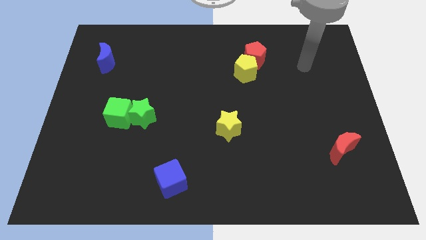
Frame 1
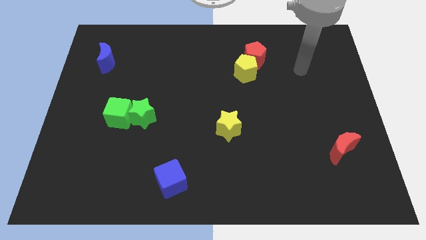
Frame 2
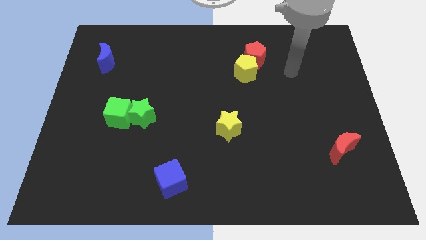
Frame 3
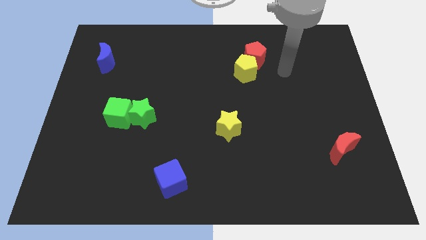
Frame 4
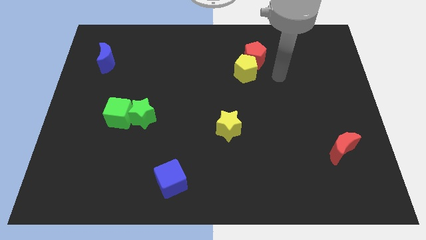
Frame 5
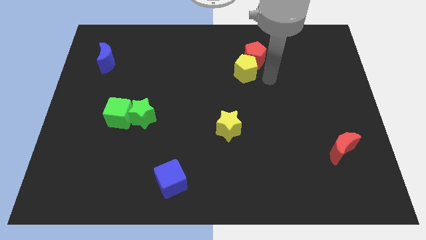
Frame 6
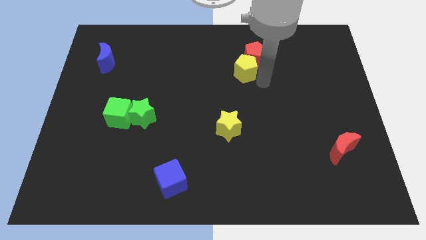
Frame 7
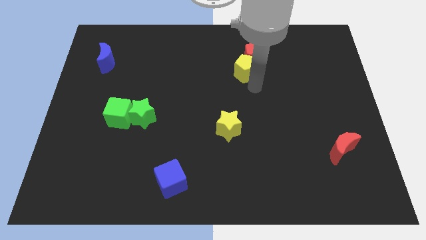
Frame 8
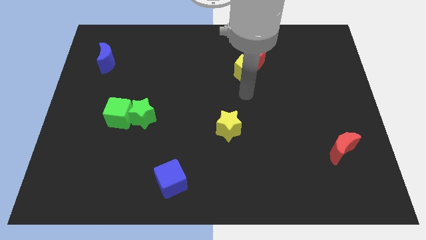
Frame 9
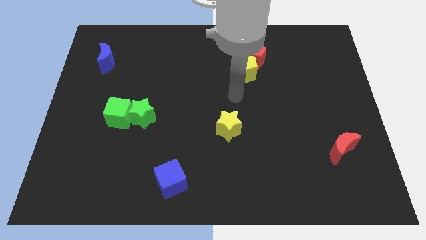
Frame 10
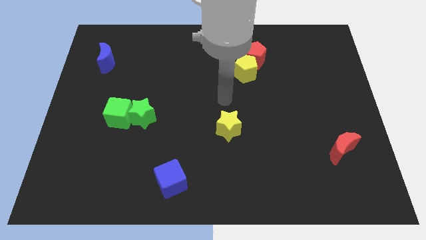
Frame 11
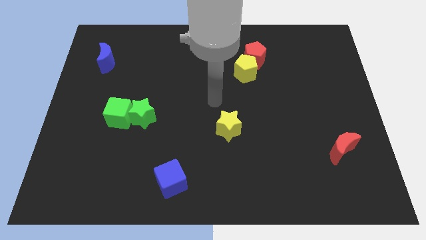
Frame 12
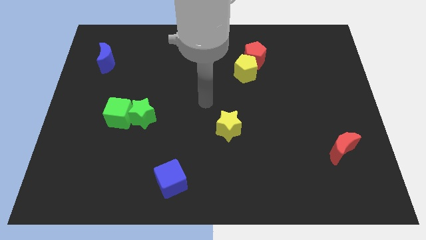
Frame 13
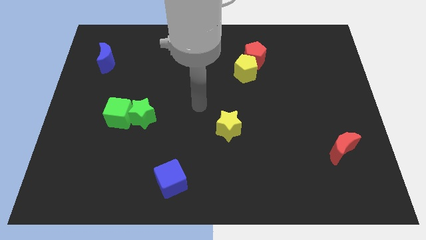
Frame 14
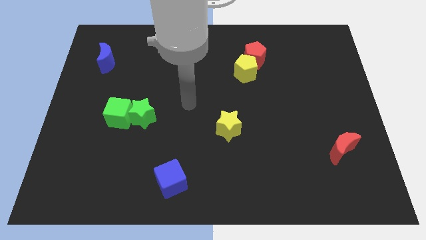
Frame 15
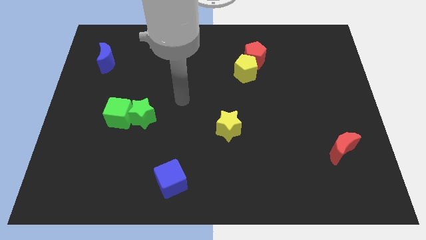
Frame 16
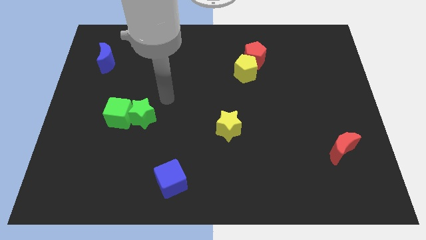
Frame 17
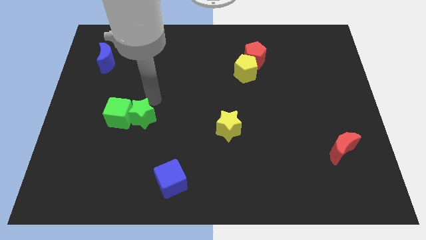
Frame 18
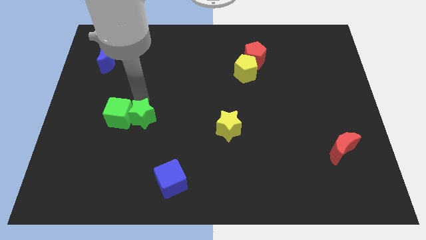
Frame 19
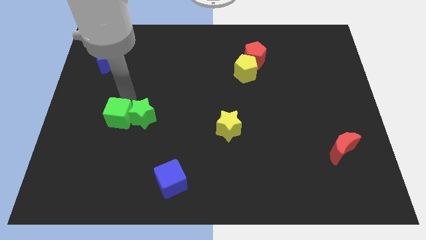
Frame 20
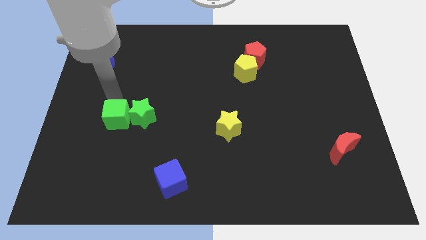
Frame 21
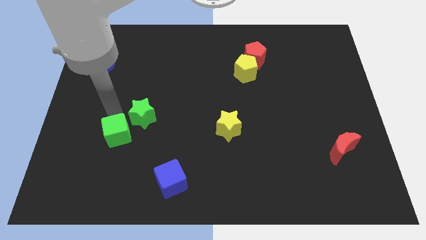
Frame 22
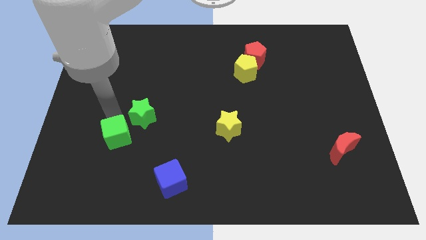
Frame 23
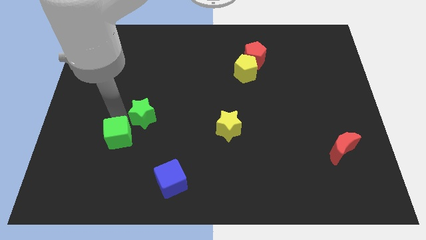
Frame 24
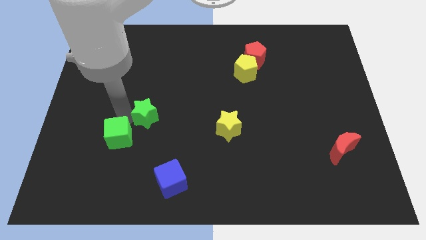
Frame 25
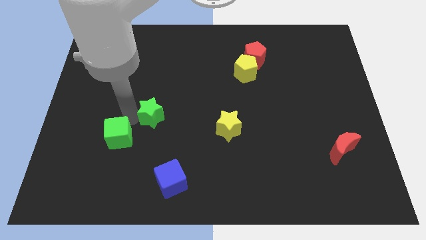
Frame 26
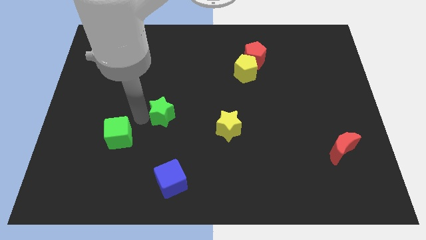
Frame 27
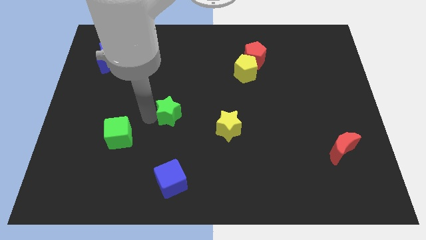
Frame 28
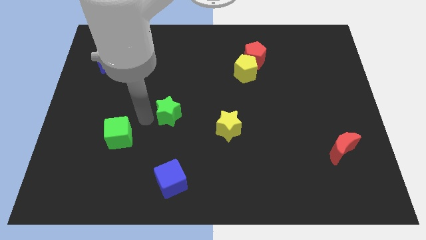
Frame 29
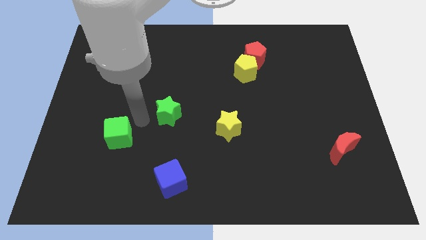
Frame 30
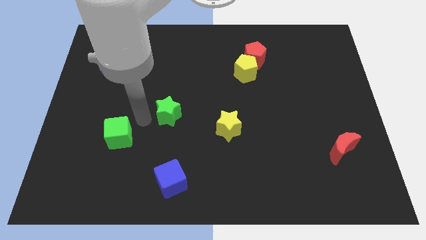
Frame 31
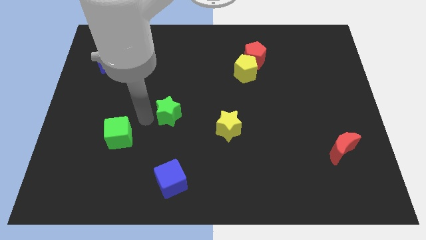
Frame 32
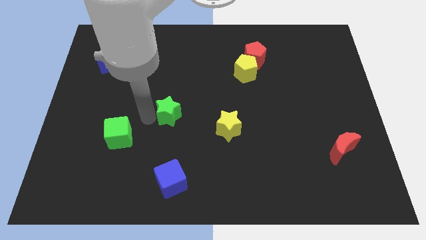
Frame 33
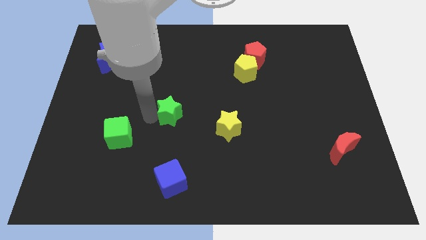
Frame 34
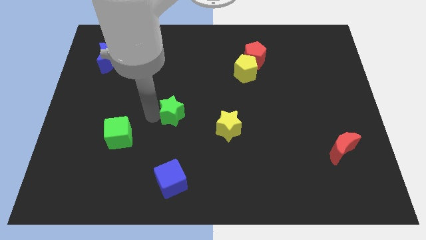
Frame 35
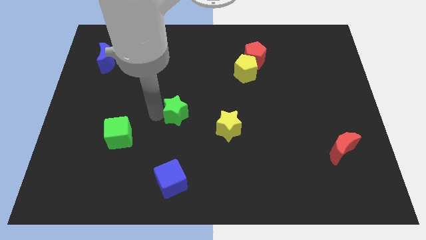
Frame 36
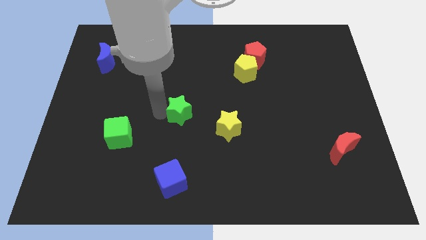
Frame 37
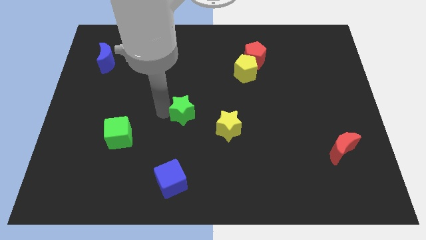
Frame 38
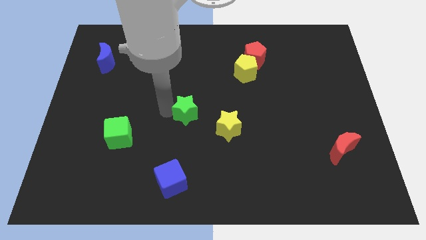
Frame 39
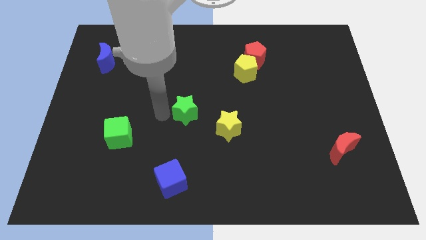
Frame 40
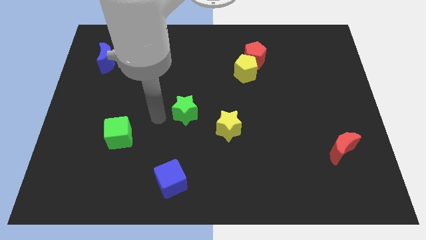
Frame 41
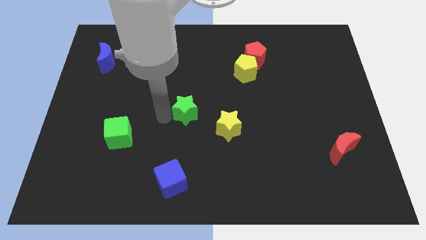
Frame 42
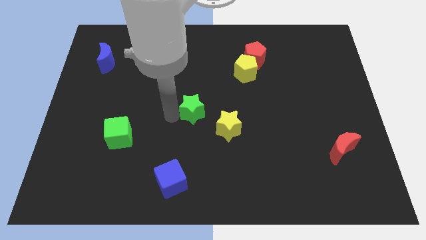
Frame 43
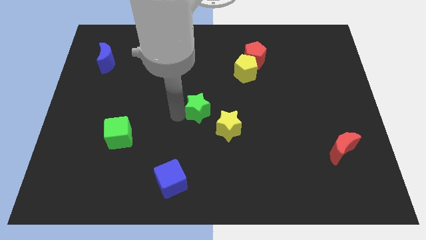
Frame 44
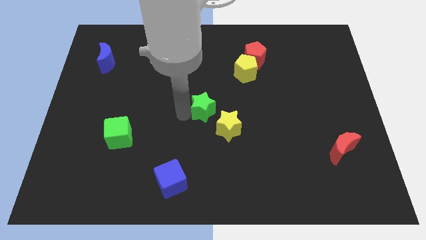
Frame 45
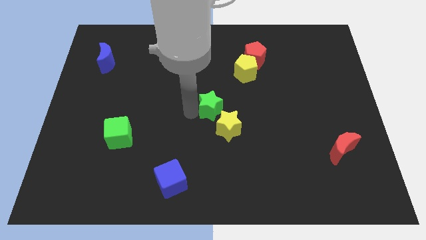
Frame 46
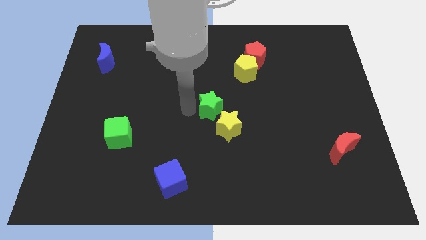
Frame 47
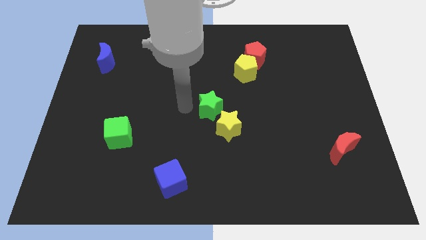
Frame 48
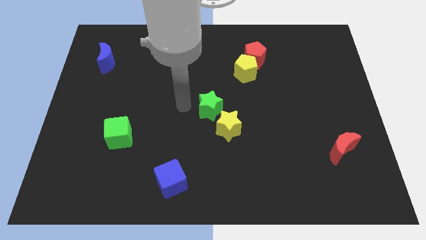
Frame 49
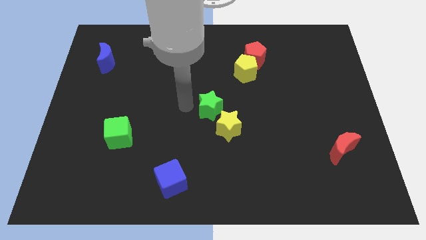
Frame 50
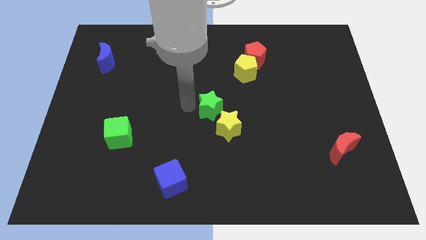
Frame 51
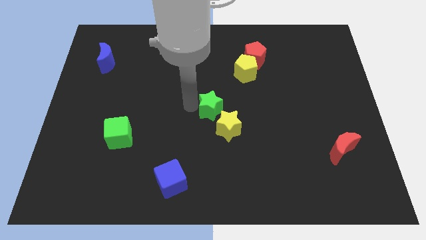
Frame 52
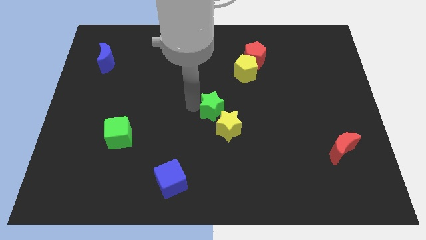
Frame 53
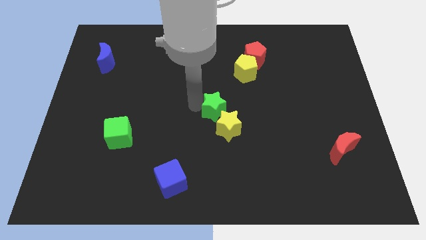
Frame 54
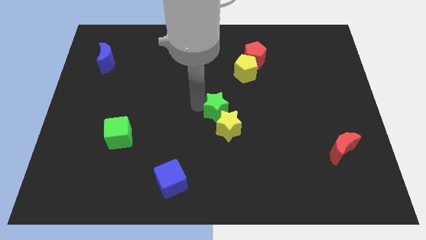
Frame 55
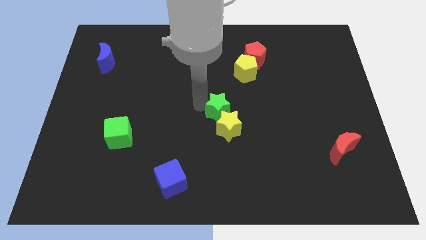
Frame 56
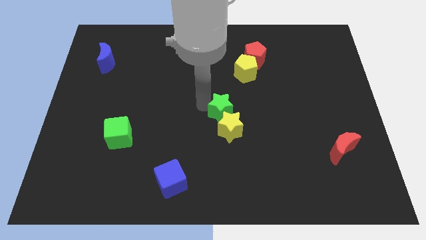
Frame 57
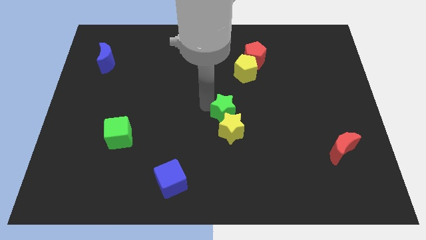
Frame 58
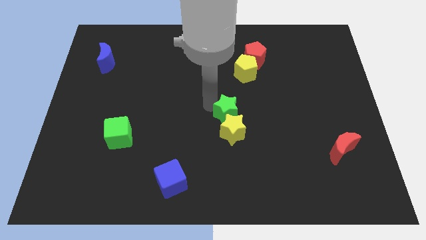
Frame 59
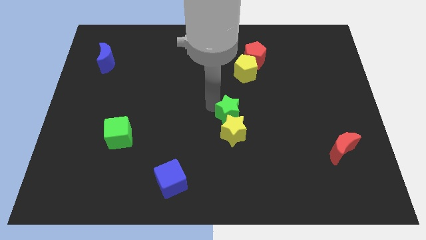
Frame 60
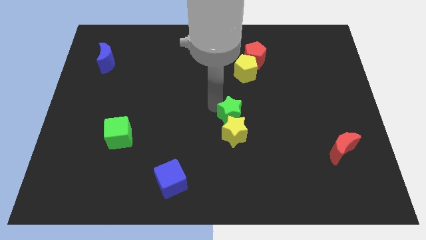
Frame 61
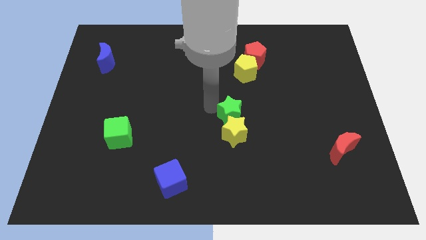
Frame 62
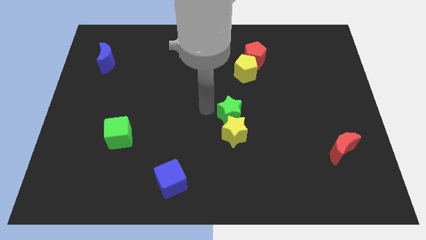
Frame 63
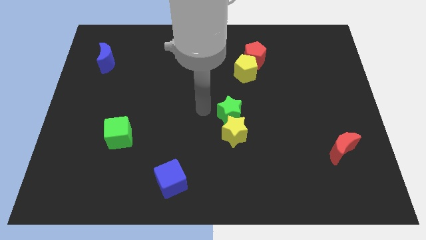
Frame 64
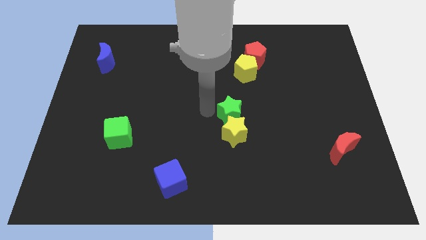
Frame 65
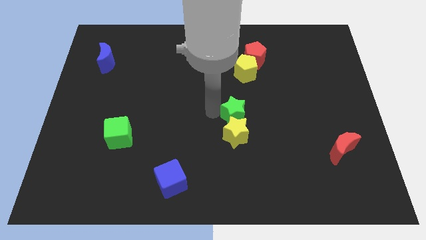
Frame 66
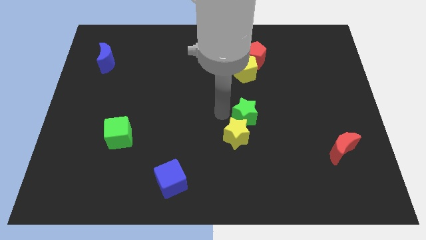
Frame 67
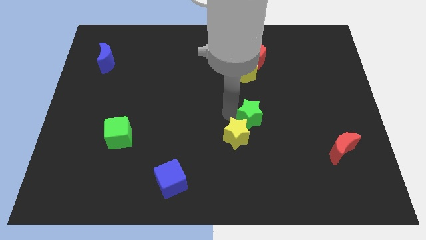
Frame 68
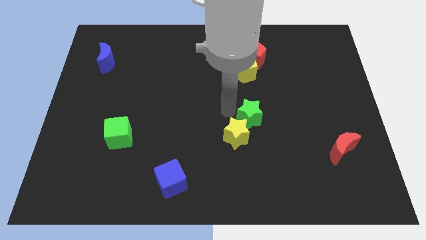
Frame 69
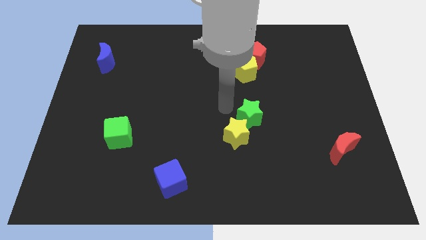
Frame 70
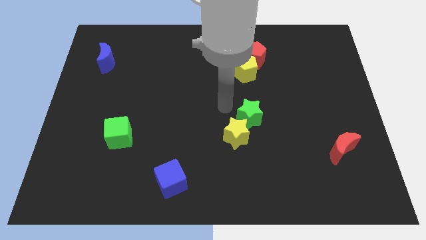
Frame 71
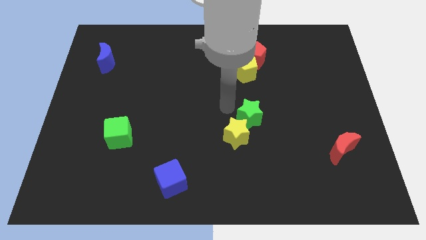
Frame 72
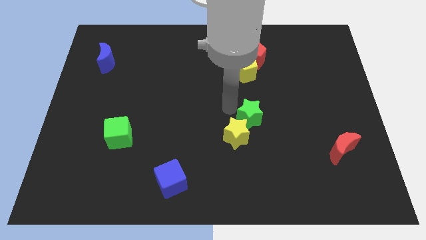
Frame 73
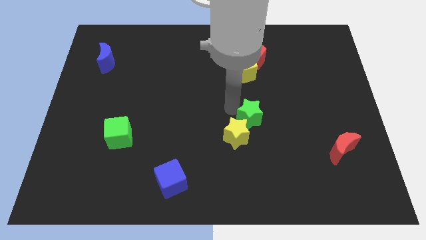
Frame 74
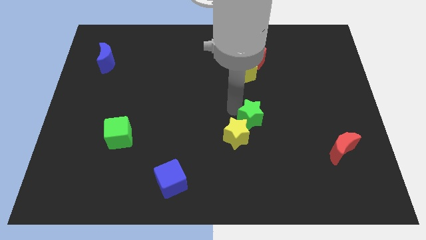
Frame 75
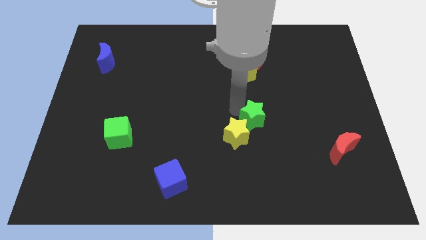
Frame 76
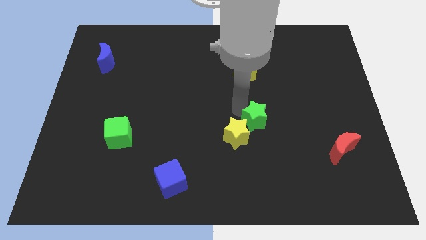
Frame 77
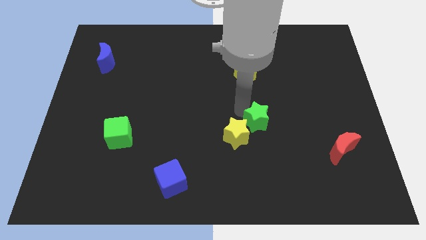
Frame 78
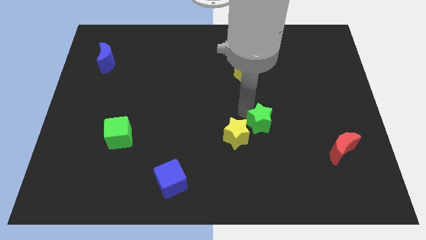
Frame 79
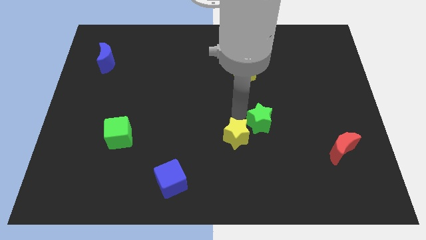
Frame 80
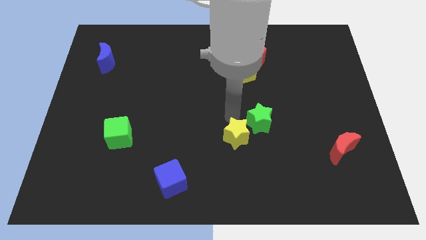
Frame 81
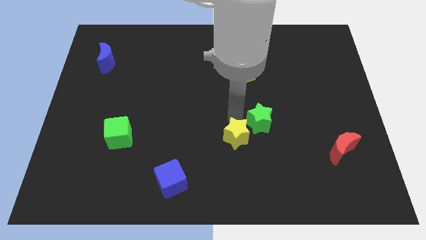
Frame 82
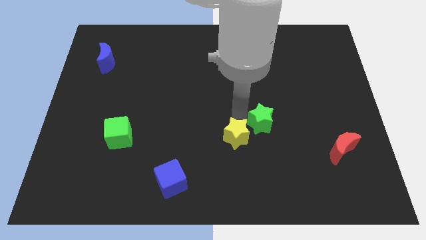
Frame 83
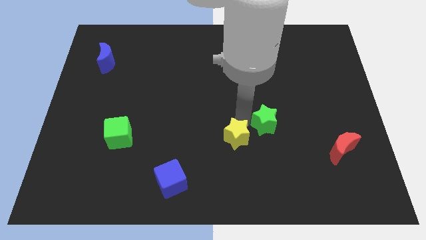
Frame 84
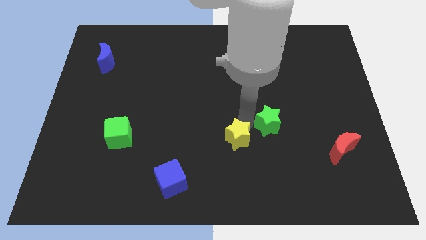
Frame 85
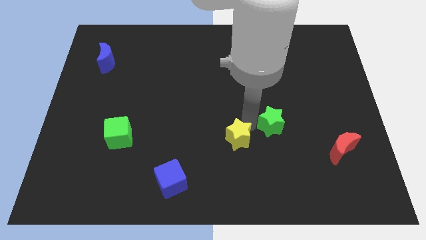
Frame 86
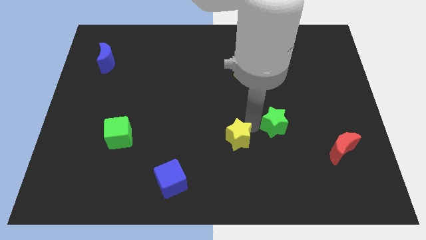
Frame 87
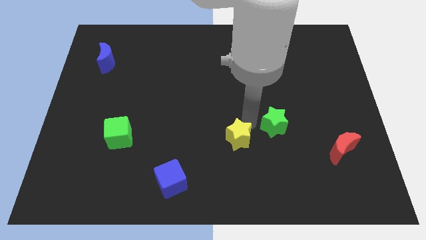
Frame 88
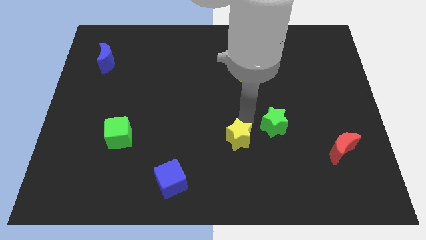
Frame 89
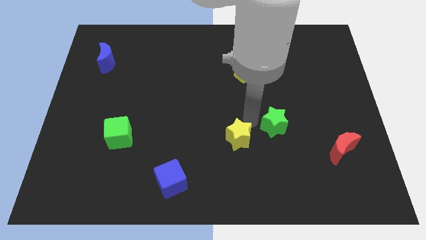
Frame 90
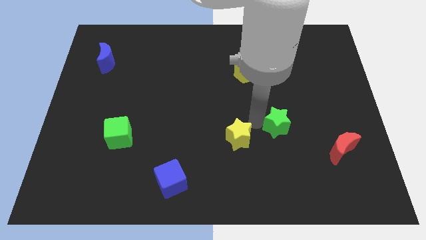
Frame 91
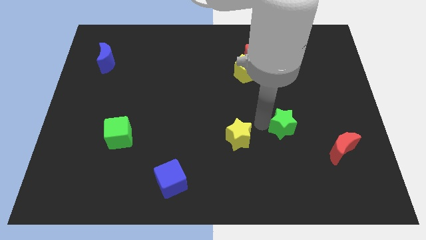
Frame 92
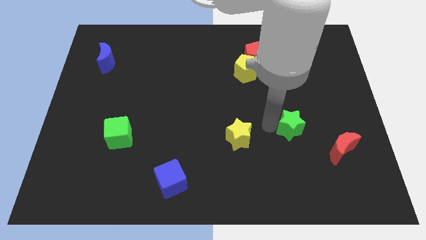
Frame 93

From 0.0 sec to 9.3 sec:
slide the green star diagonally up and to the left of the red moon
